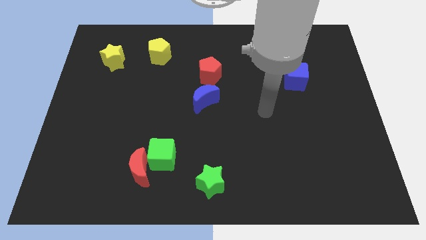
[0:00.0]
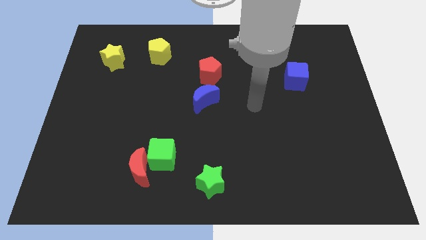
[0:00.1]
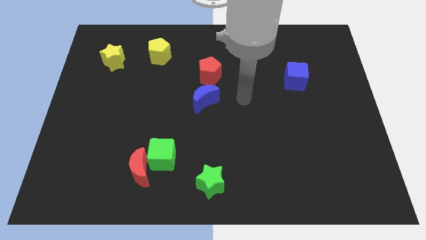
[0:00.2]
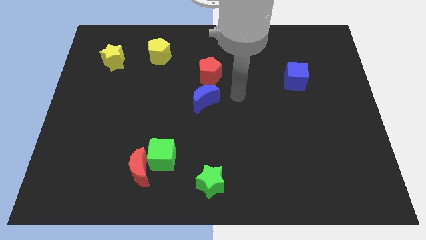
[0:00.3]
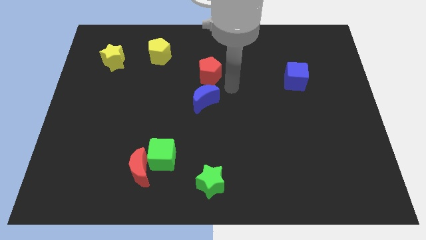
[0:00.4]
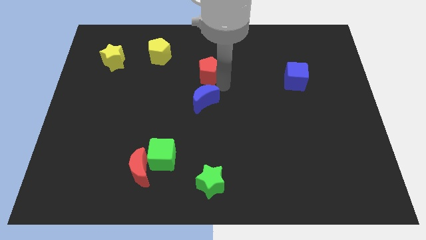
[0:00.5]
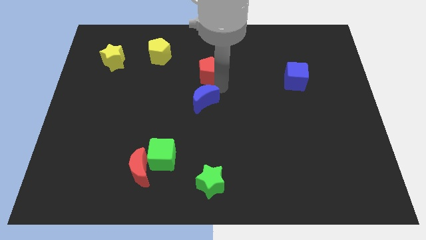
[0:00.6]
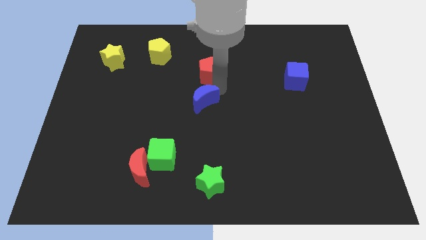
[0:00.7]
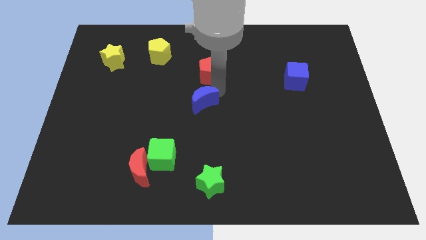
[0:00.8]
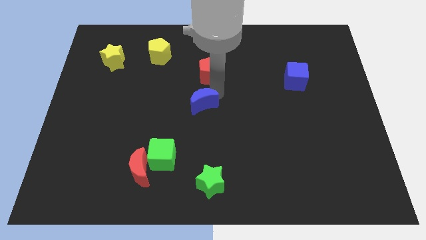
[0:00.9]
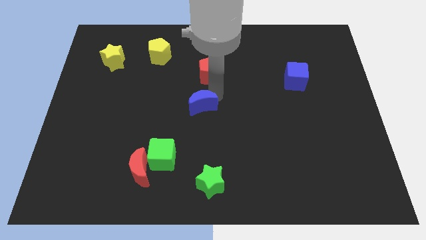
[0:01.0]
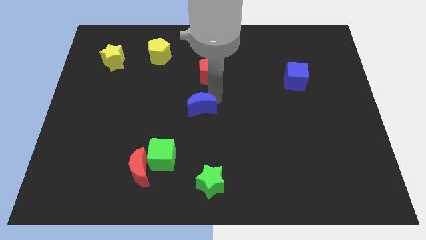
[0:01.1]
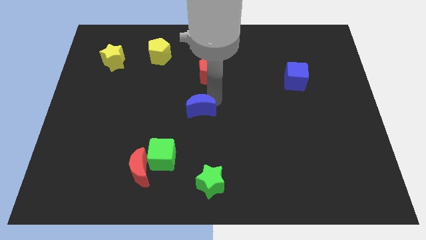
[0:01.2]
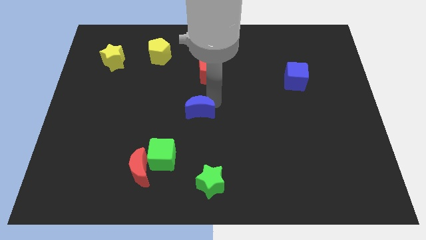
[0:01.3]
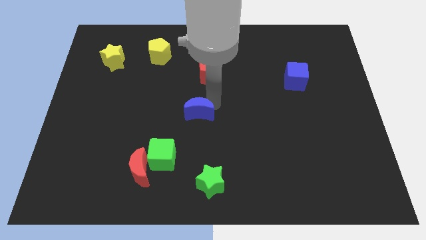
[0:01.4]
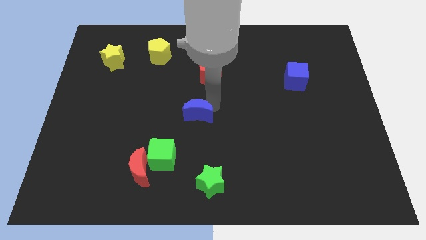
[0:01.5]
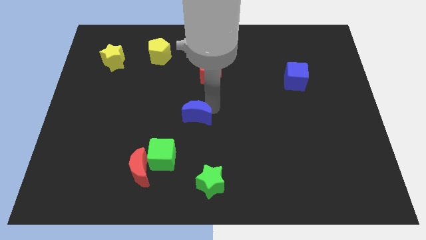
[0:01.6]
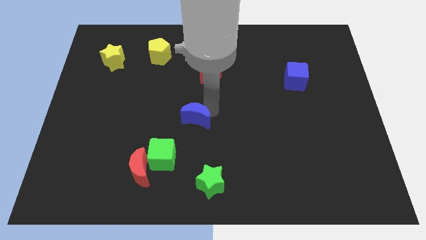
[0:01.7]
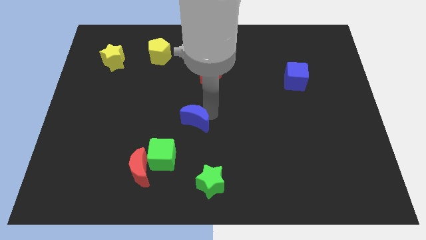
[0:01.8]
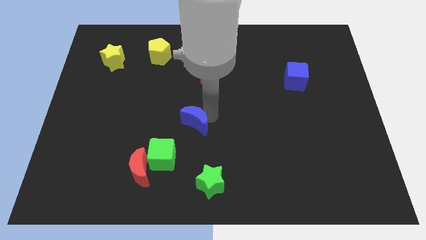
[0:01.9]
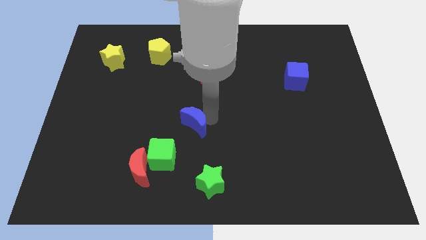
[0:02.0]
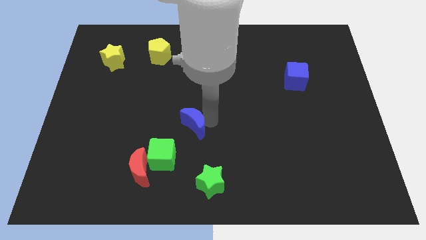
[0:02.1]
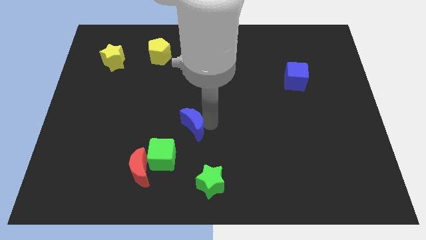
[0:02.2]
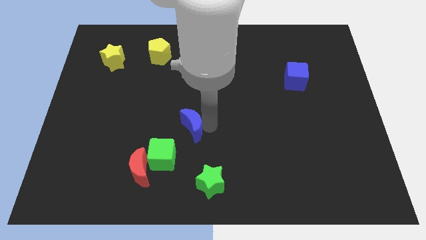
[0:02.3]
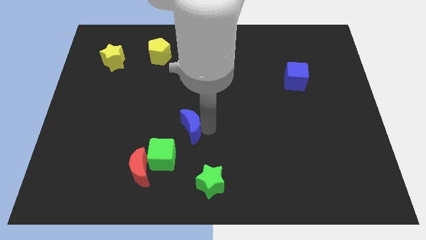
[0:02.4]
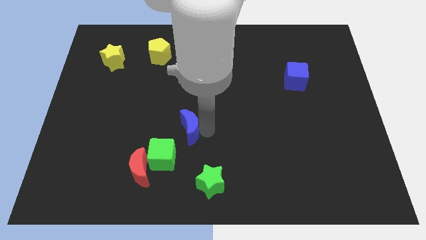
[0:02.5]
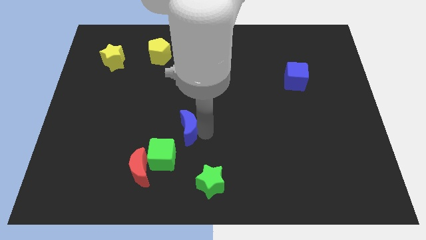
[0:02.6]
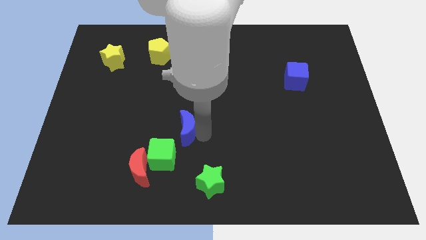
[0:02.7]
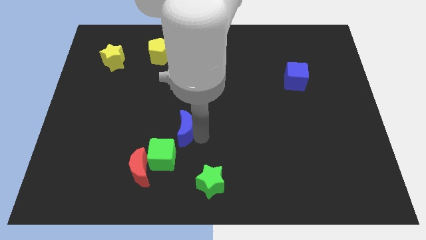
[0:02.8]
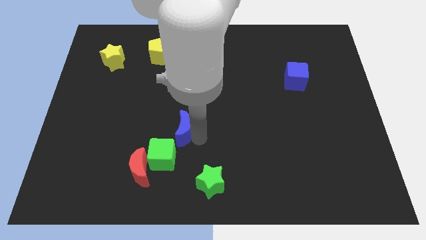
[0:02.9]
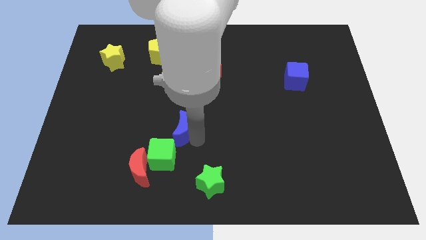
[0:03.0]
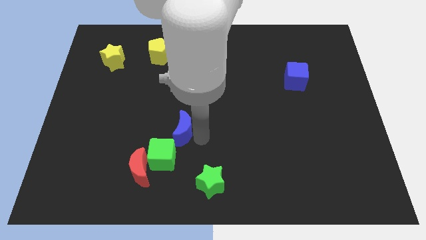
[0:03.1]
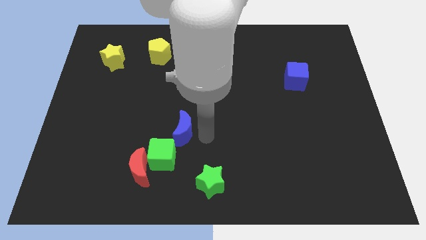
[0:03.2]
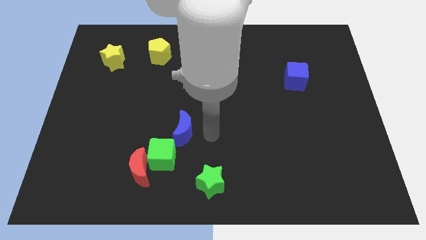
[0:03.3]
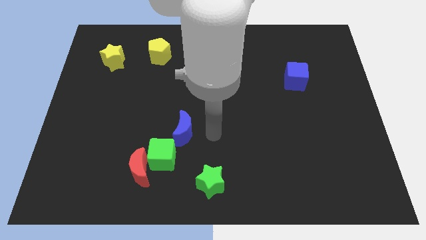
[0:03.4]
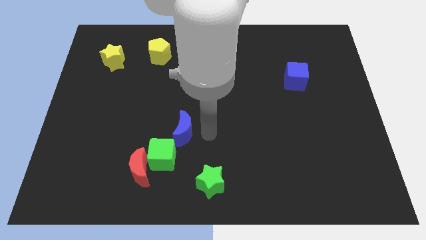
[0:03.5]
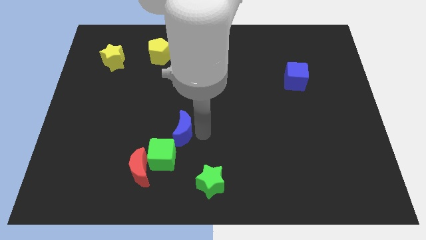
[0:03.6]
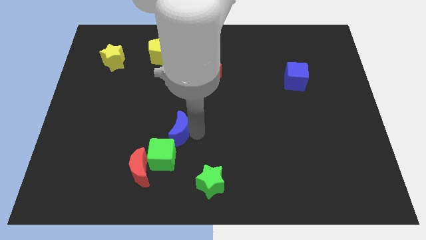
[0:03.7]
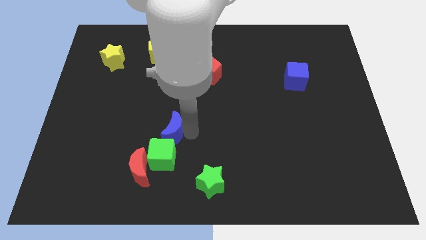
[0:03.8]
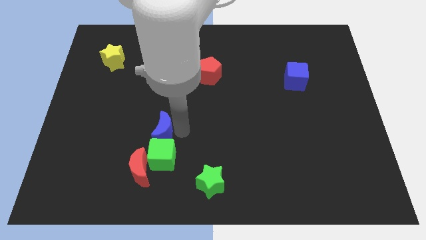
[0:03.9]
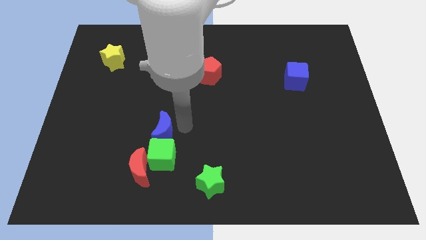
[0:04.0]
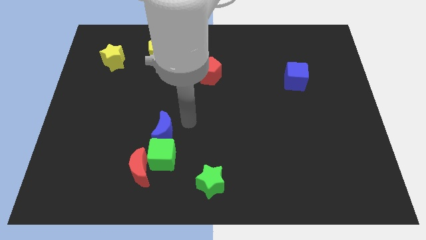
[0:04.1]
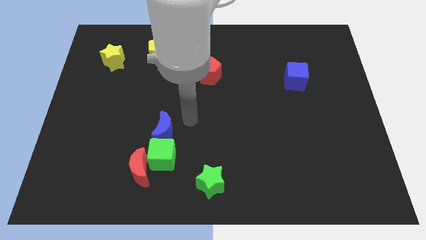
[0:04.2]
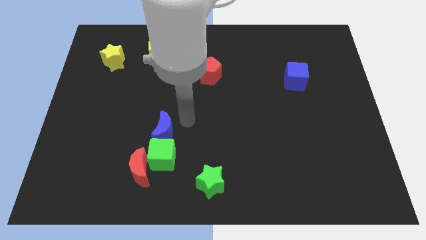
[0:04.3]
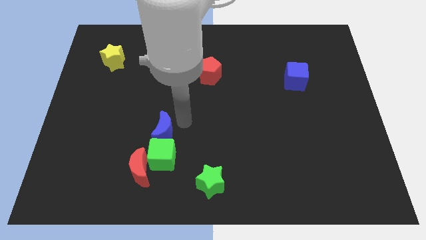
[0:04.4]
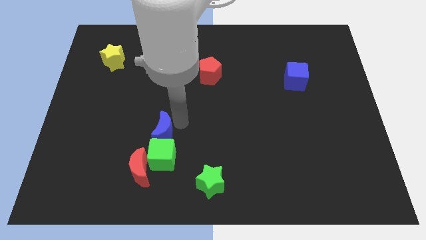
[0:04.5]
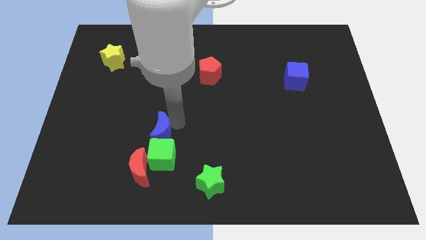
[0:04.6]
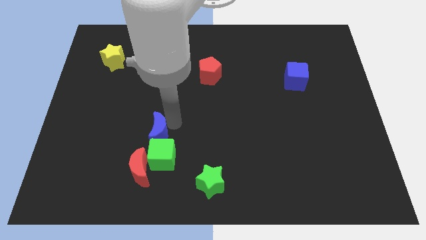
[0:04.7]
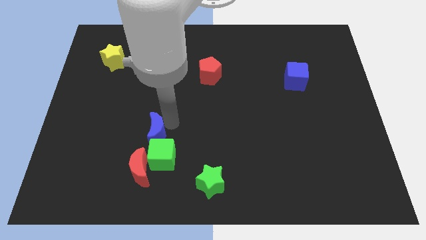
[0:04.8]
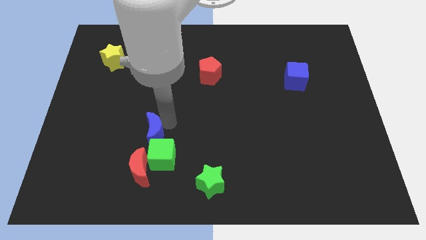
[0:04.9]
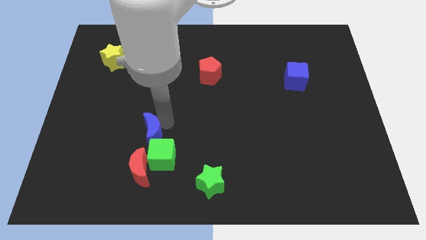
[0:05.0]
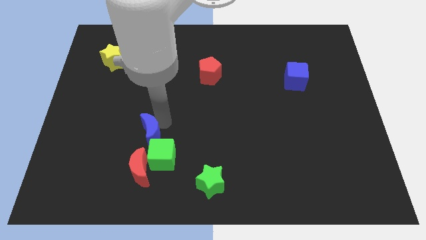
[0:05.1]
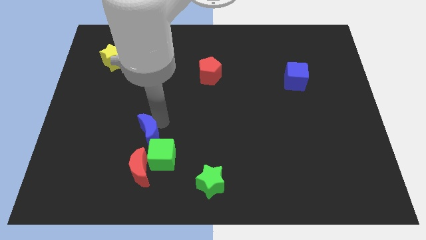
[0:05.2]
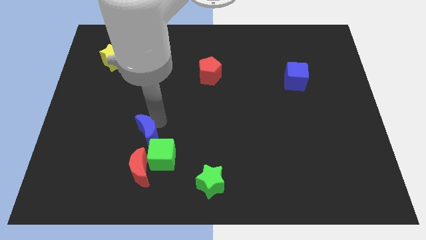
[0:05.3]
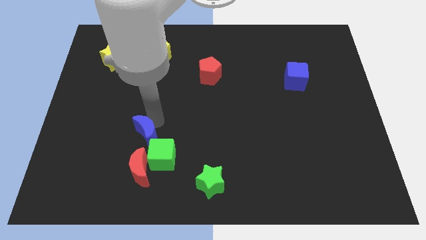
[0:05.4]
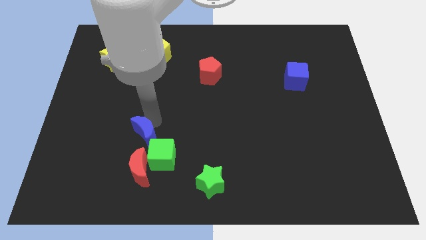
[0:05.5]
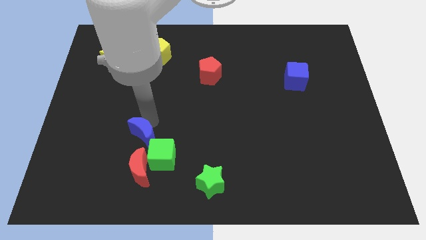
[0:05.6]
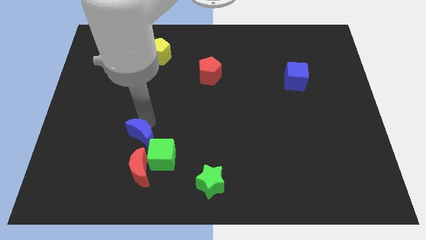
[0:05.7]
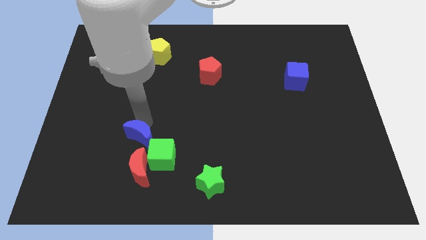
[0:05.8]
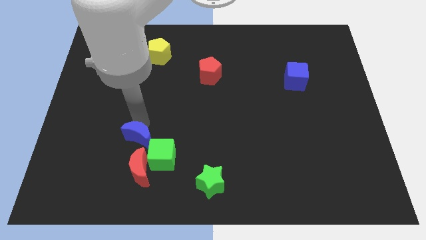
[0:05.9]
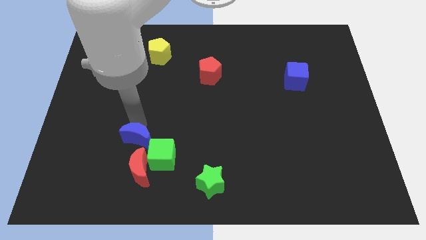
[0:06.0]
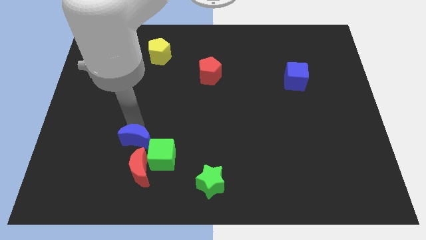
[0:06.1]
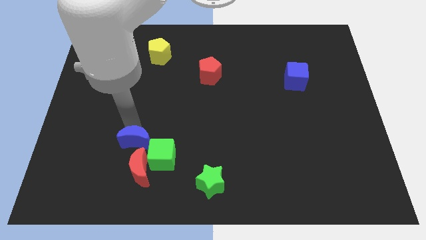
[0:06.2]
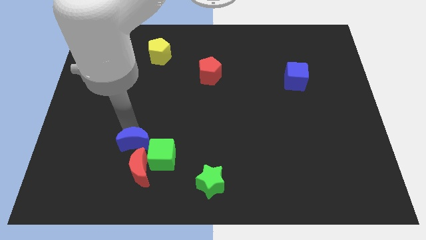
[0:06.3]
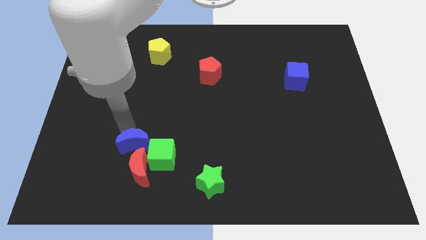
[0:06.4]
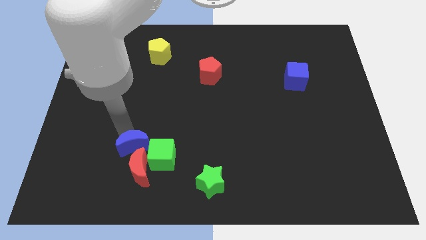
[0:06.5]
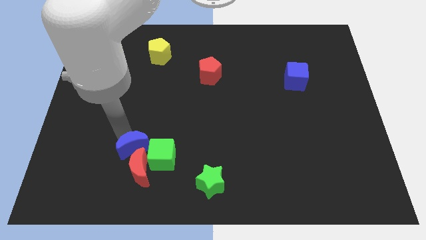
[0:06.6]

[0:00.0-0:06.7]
move the blue moon to the red moon

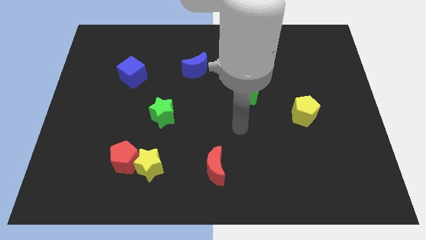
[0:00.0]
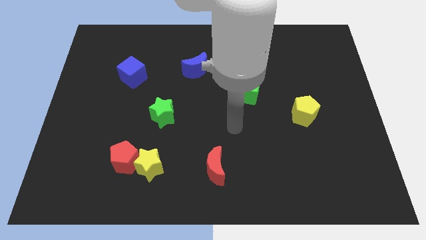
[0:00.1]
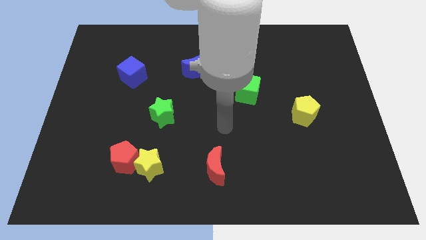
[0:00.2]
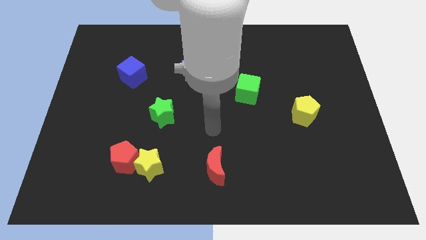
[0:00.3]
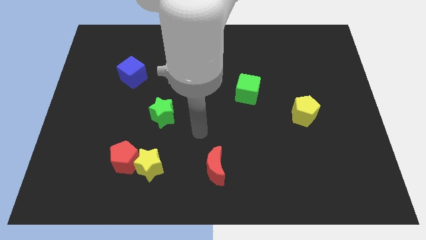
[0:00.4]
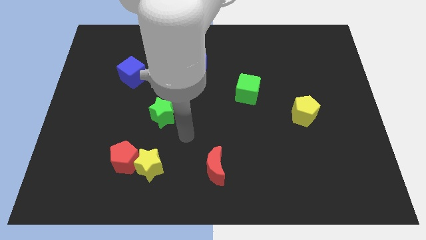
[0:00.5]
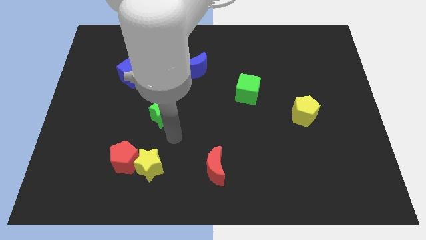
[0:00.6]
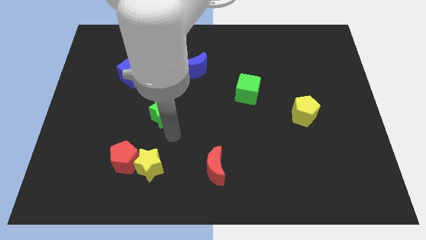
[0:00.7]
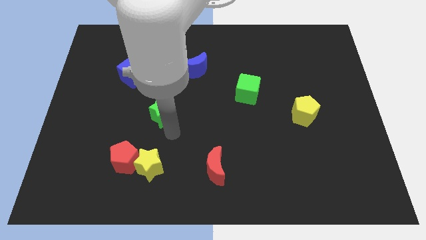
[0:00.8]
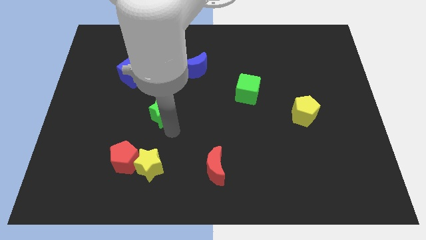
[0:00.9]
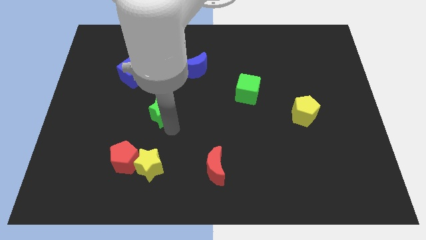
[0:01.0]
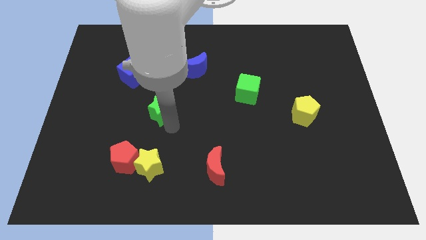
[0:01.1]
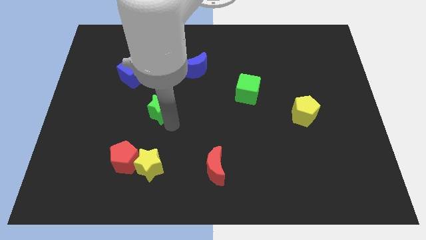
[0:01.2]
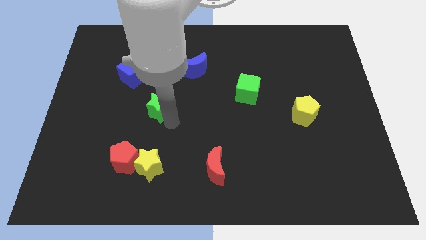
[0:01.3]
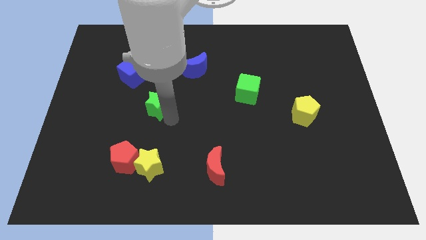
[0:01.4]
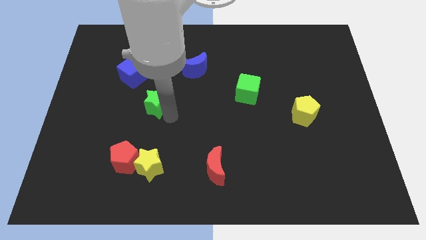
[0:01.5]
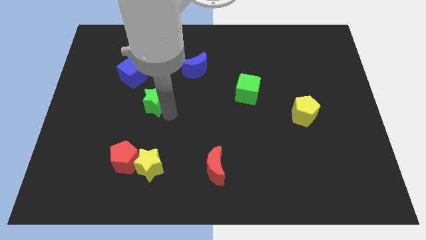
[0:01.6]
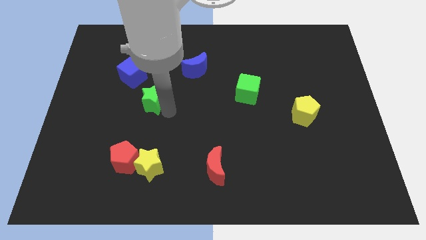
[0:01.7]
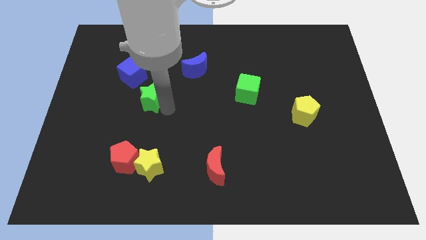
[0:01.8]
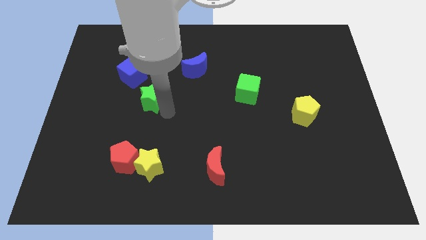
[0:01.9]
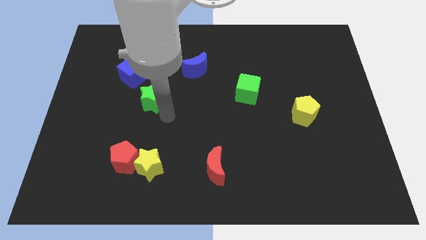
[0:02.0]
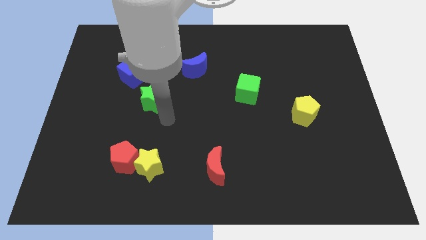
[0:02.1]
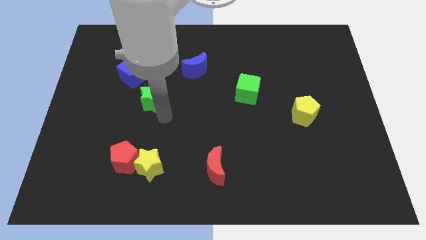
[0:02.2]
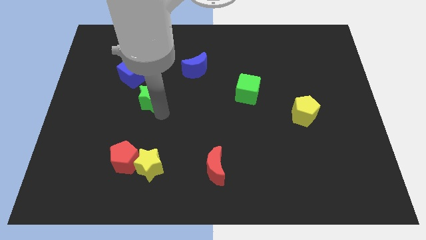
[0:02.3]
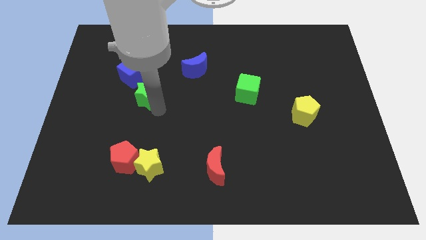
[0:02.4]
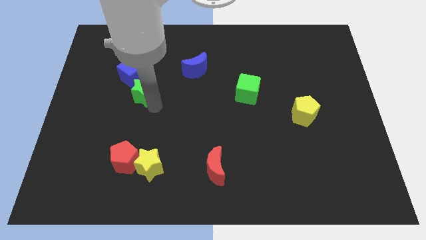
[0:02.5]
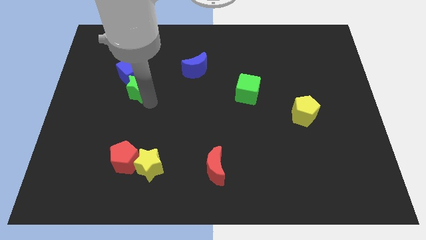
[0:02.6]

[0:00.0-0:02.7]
slide the green star next to the blue cube
